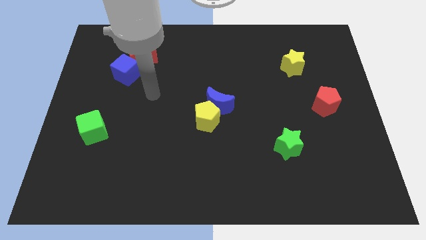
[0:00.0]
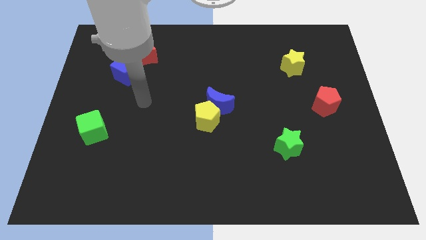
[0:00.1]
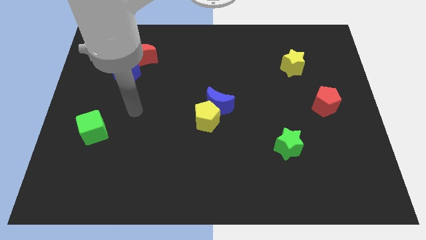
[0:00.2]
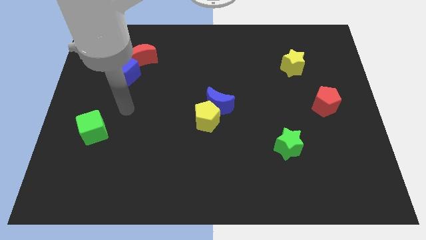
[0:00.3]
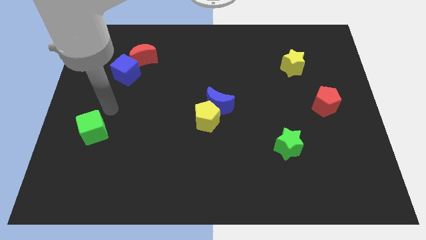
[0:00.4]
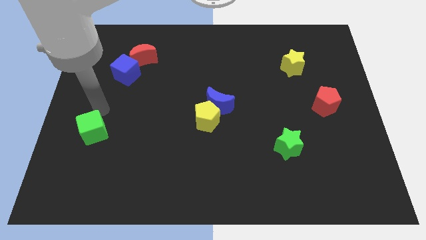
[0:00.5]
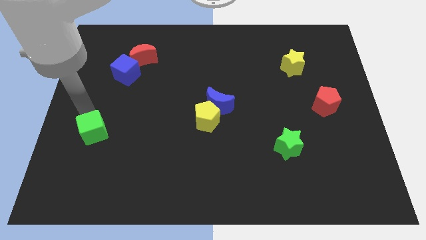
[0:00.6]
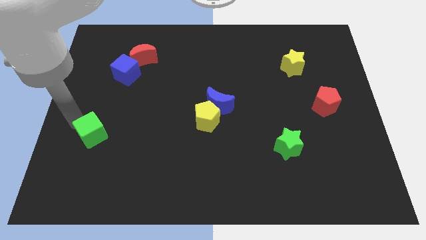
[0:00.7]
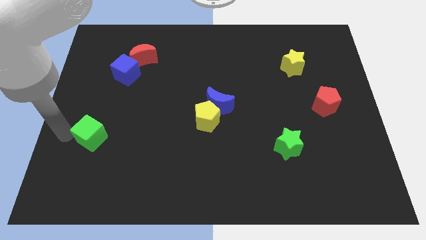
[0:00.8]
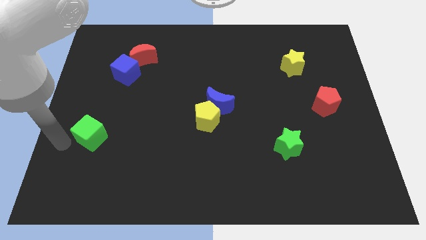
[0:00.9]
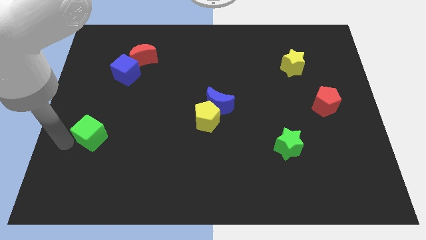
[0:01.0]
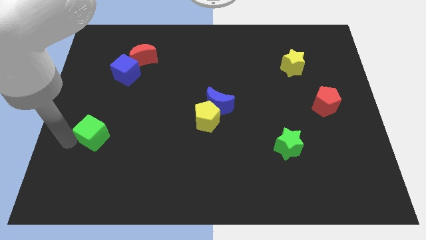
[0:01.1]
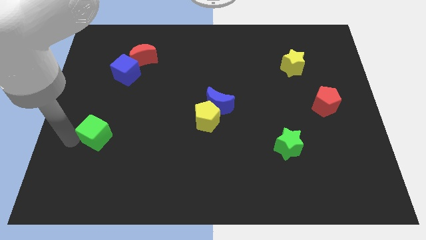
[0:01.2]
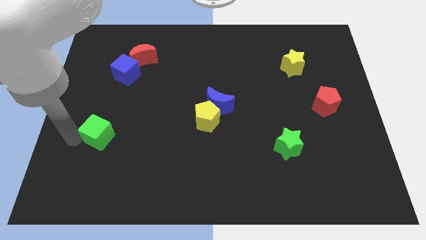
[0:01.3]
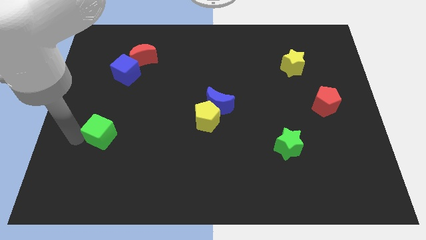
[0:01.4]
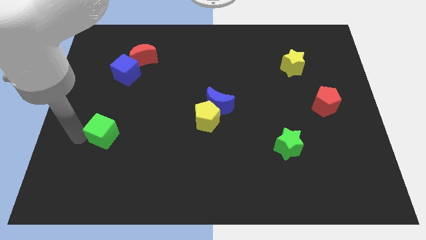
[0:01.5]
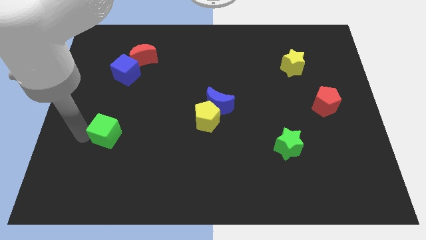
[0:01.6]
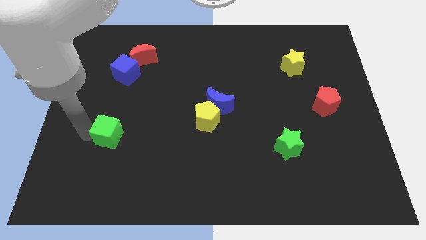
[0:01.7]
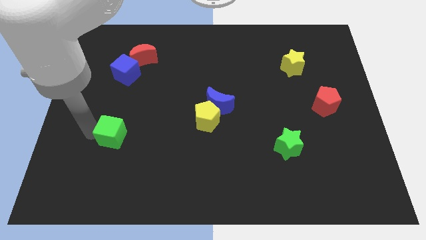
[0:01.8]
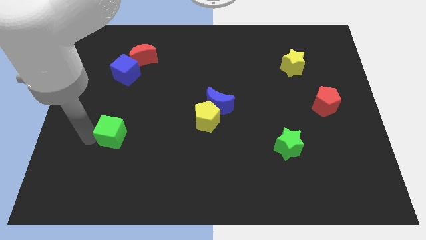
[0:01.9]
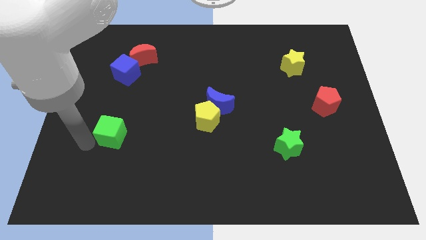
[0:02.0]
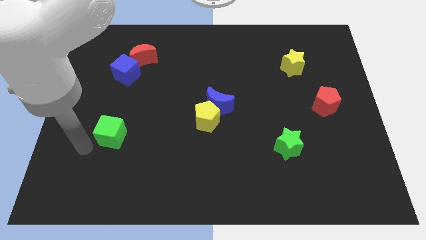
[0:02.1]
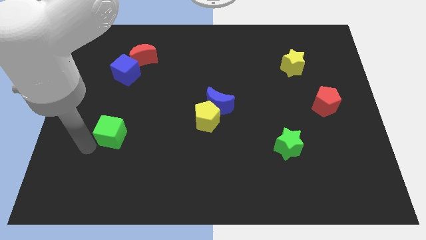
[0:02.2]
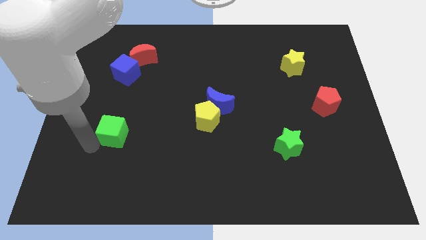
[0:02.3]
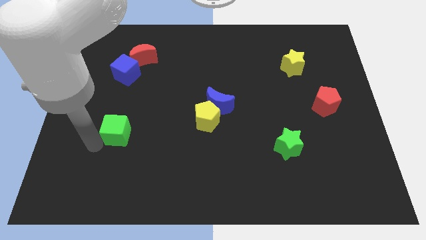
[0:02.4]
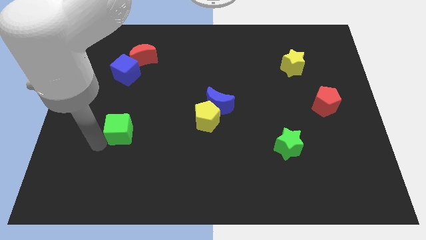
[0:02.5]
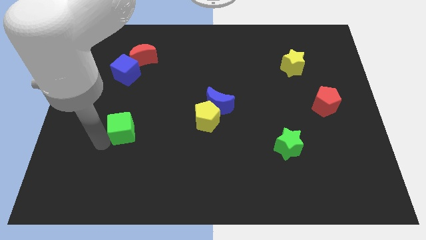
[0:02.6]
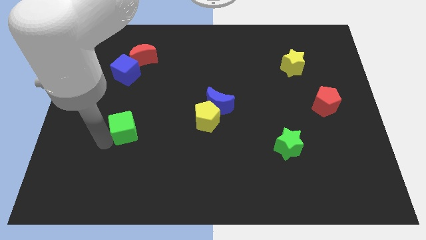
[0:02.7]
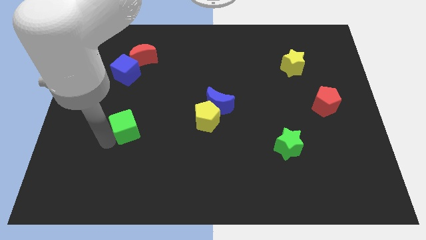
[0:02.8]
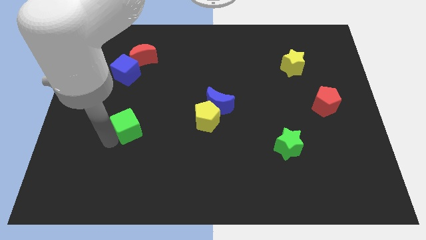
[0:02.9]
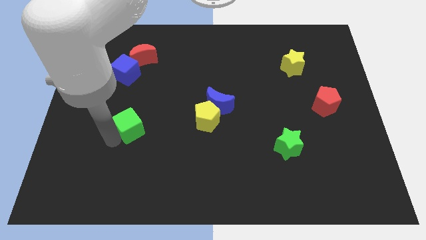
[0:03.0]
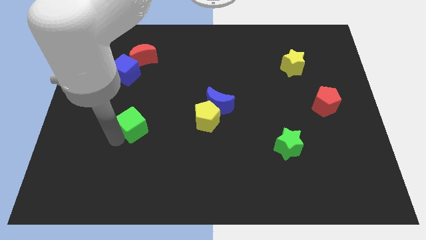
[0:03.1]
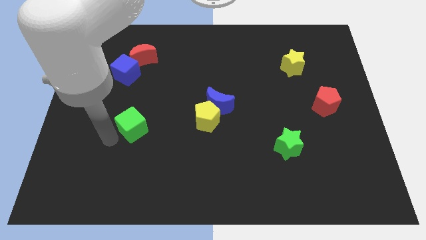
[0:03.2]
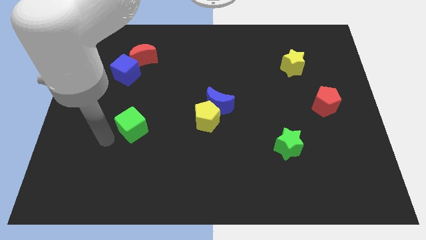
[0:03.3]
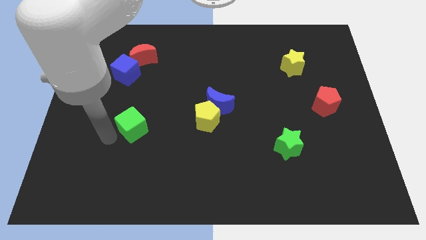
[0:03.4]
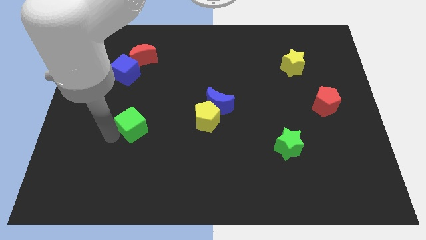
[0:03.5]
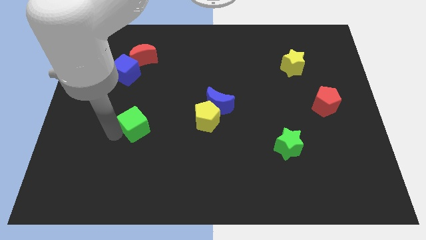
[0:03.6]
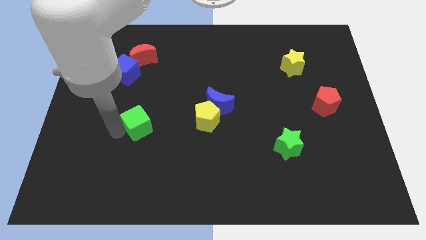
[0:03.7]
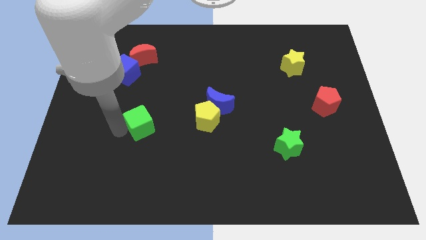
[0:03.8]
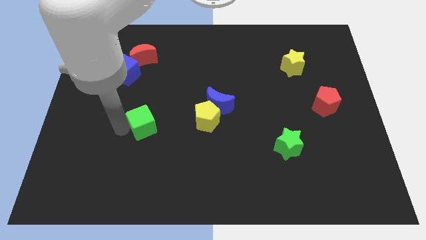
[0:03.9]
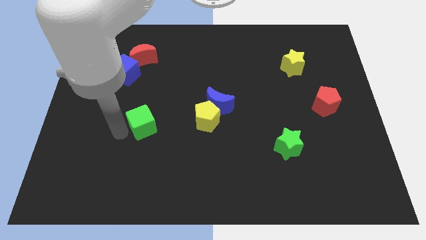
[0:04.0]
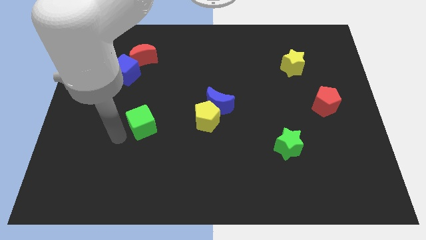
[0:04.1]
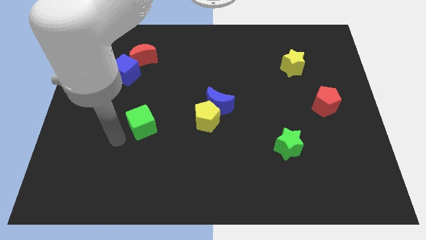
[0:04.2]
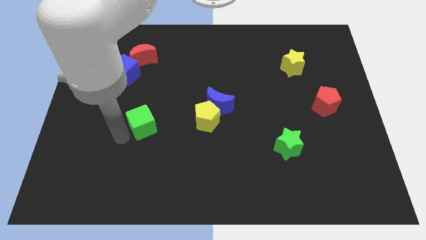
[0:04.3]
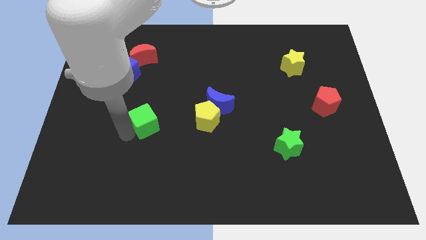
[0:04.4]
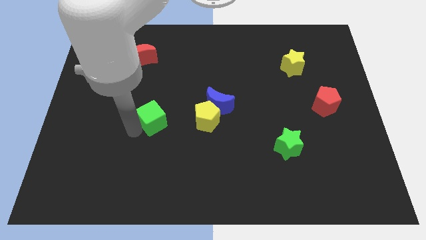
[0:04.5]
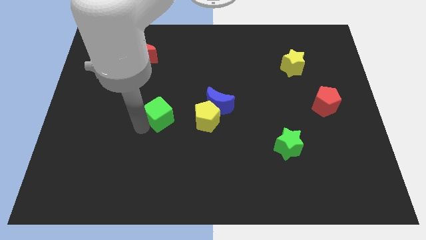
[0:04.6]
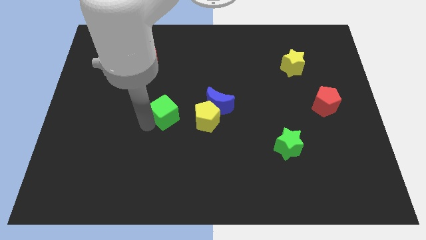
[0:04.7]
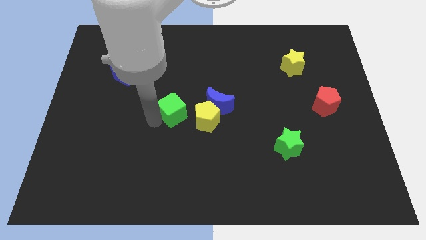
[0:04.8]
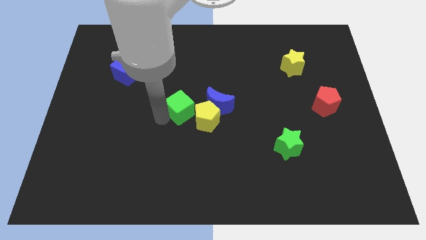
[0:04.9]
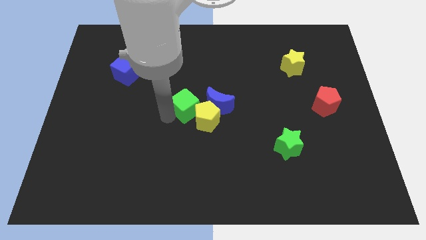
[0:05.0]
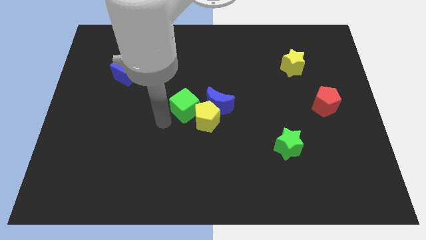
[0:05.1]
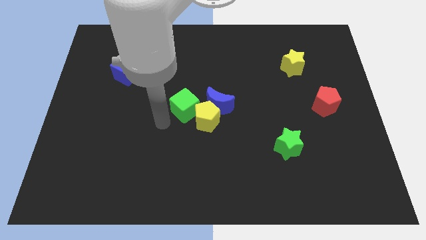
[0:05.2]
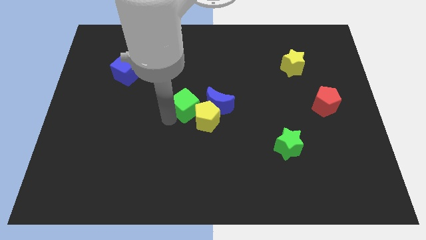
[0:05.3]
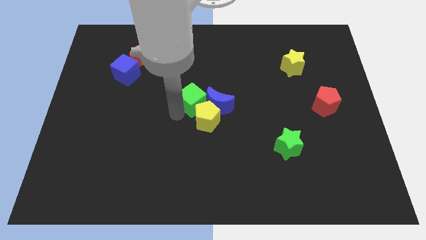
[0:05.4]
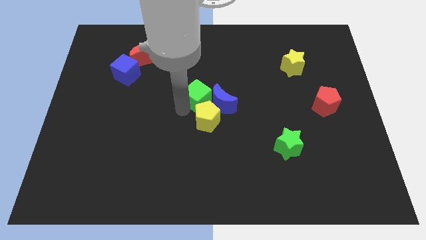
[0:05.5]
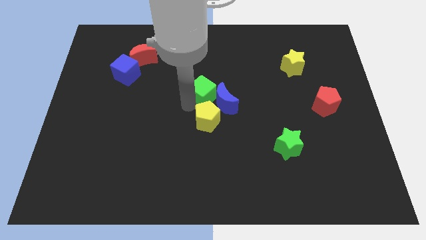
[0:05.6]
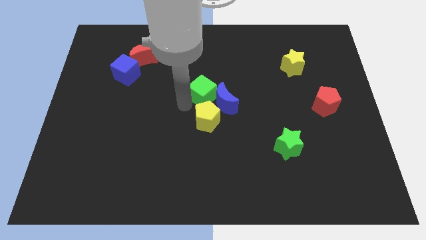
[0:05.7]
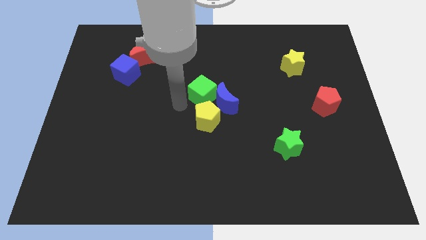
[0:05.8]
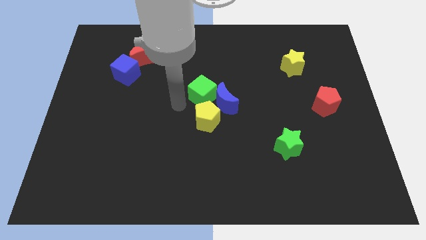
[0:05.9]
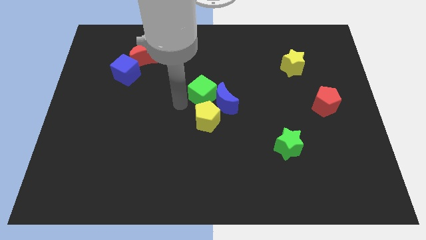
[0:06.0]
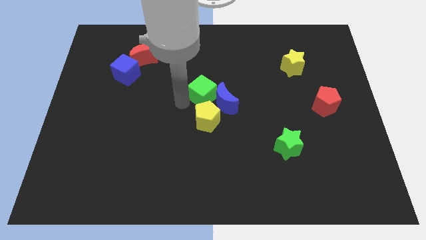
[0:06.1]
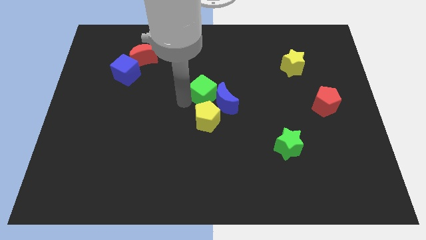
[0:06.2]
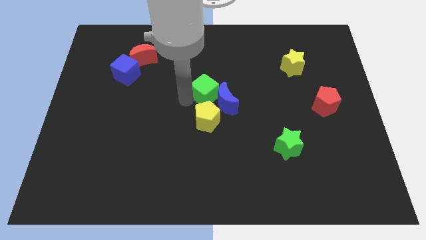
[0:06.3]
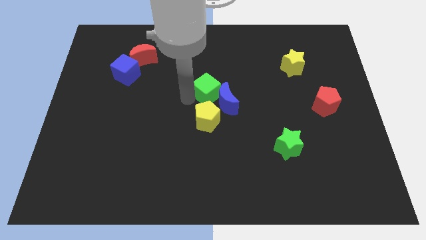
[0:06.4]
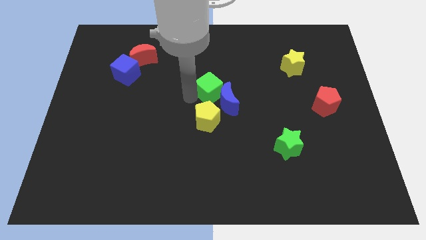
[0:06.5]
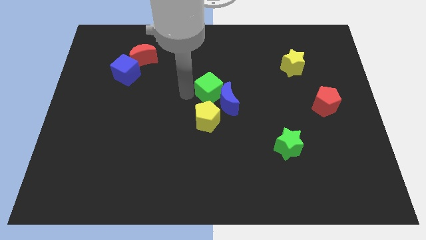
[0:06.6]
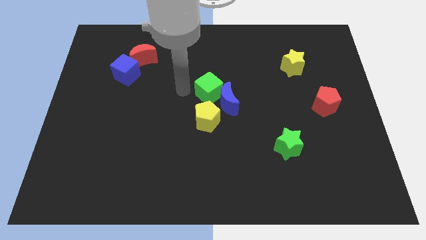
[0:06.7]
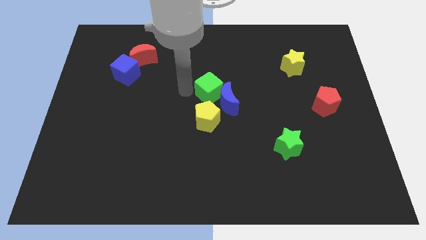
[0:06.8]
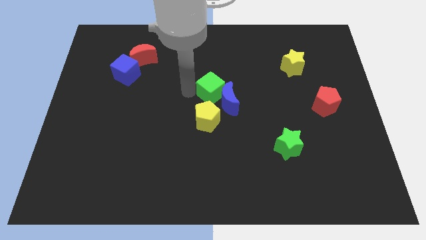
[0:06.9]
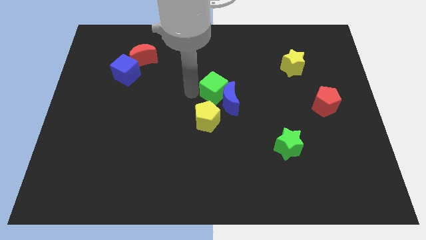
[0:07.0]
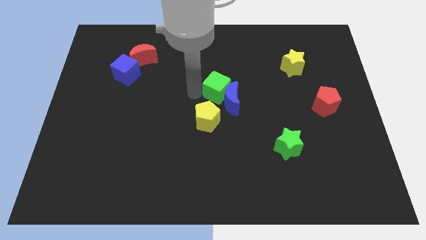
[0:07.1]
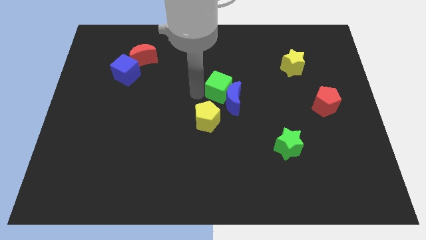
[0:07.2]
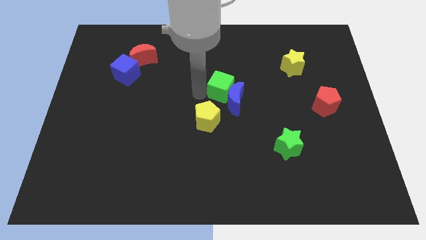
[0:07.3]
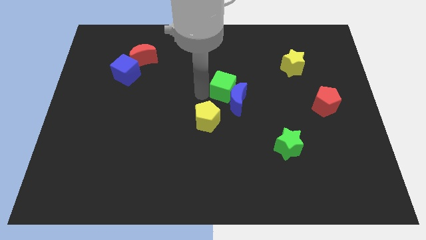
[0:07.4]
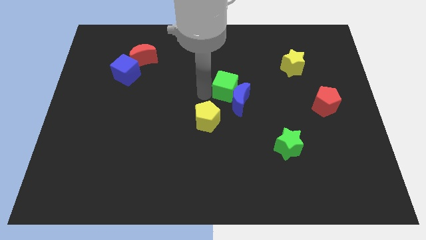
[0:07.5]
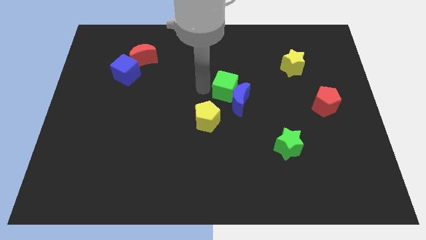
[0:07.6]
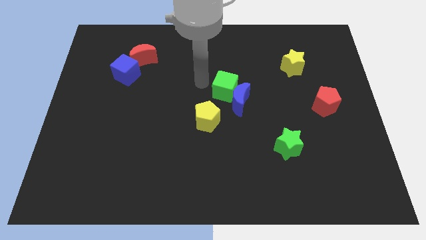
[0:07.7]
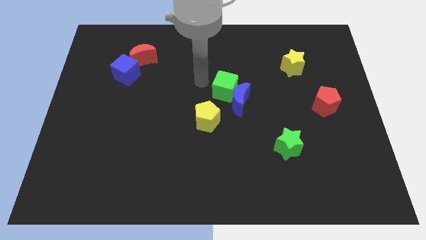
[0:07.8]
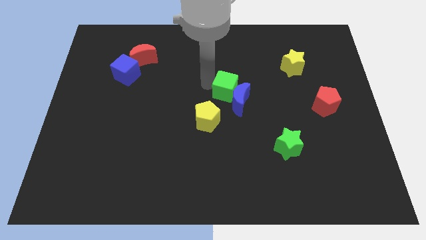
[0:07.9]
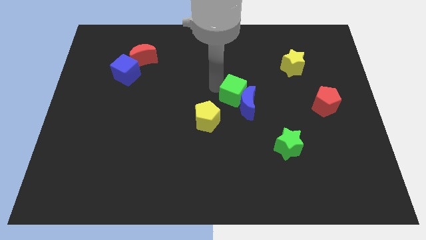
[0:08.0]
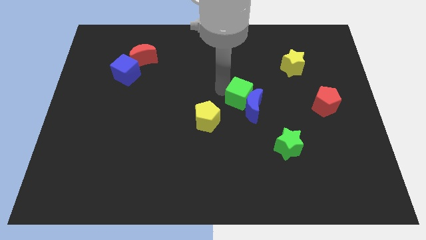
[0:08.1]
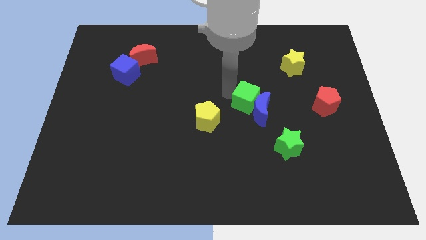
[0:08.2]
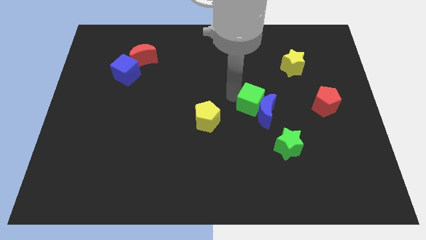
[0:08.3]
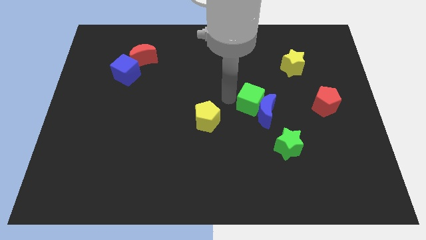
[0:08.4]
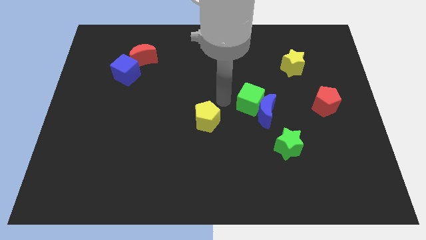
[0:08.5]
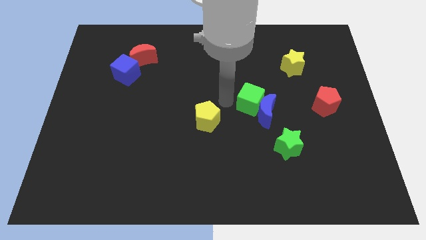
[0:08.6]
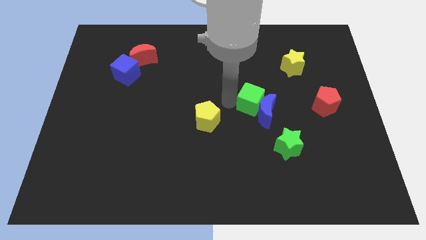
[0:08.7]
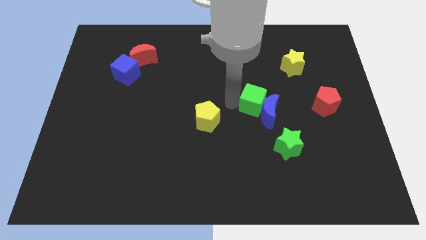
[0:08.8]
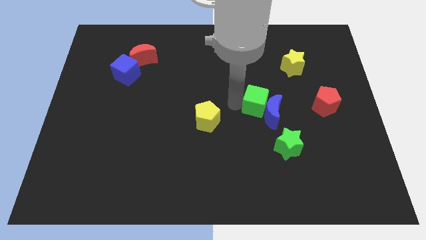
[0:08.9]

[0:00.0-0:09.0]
put the green cube to the left side of the red pentagon
